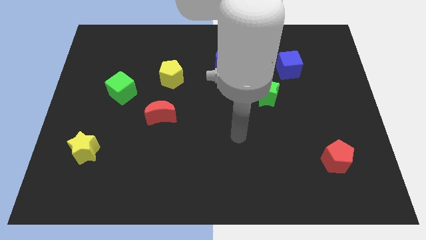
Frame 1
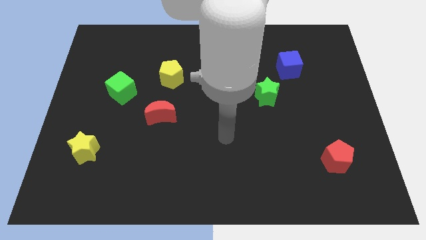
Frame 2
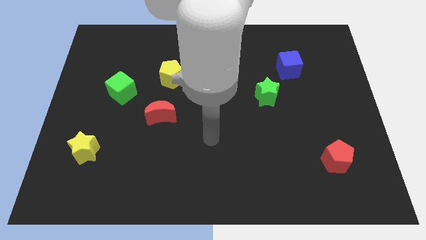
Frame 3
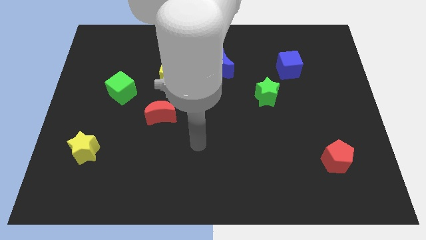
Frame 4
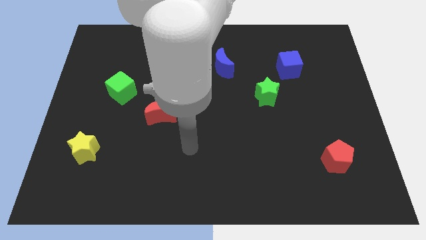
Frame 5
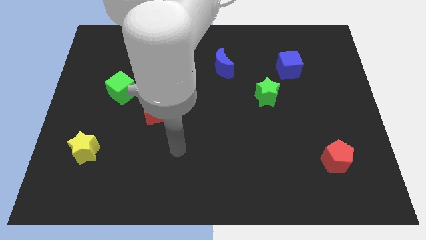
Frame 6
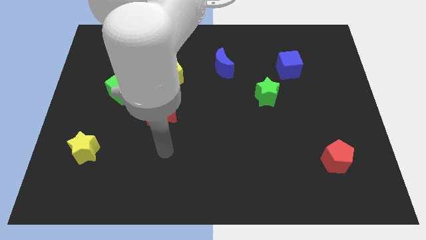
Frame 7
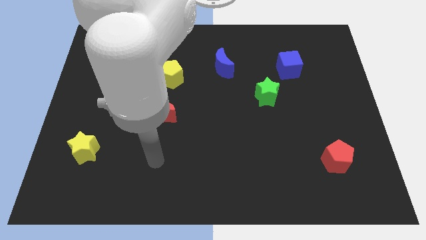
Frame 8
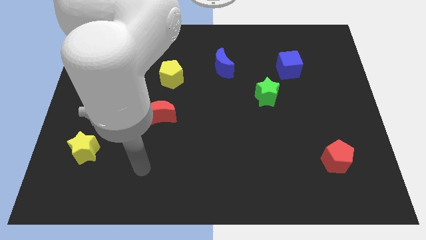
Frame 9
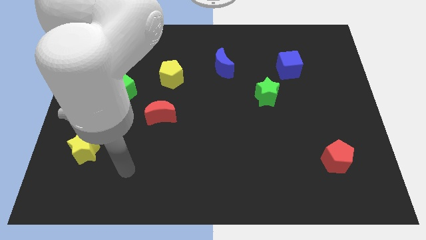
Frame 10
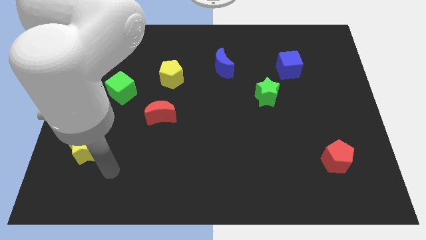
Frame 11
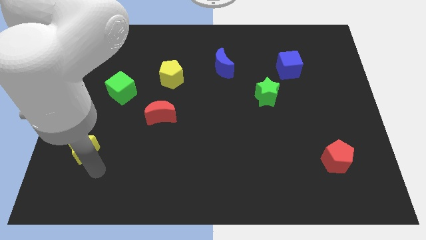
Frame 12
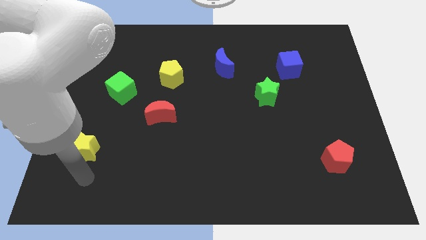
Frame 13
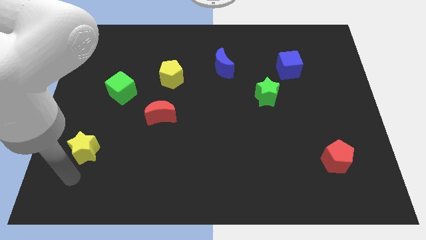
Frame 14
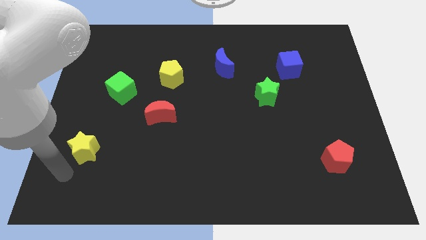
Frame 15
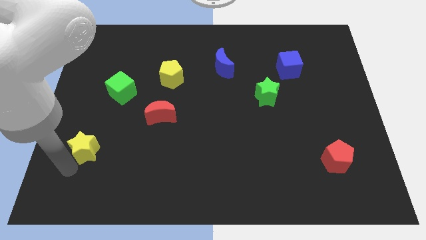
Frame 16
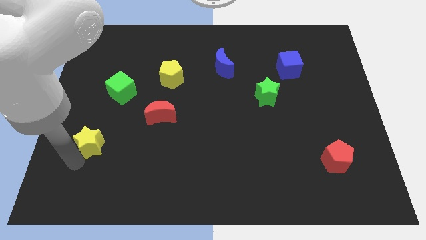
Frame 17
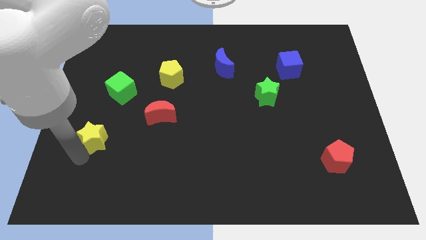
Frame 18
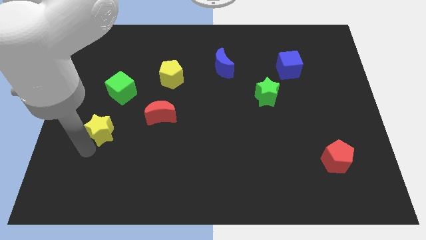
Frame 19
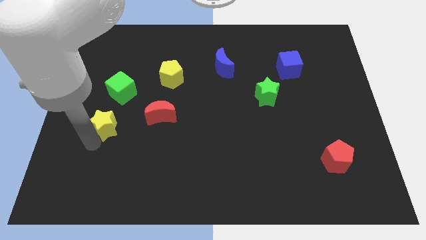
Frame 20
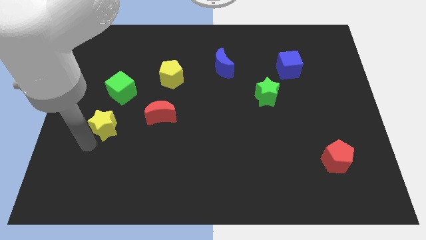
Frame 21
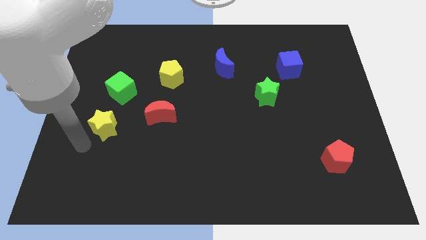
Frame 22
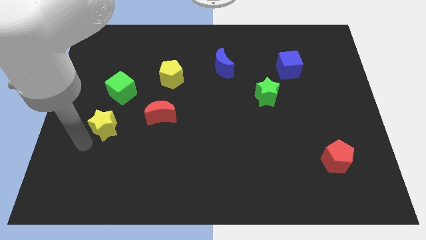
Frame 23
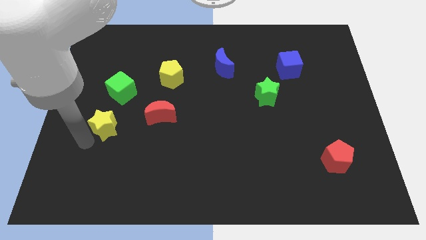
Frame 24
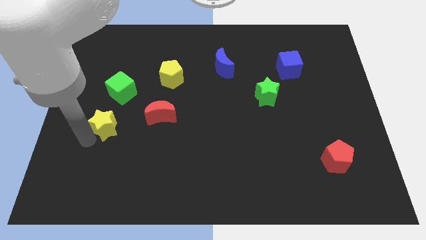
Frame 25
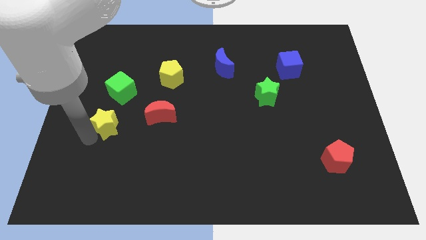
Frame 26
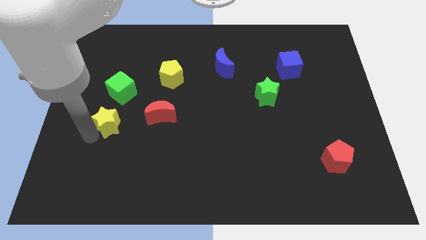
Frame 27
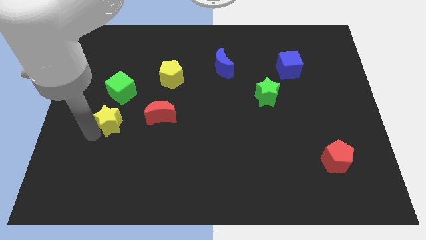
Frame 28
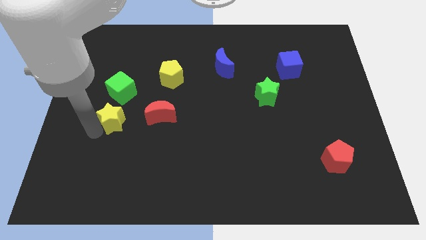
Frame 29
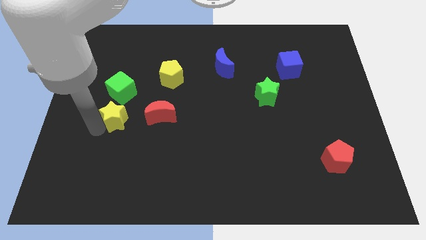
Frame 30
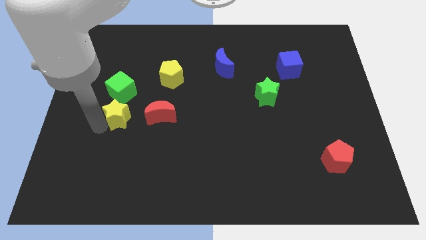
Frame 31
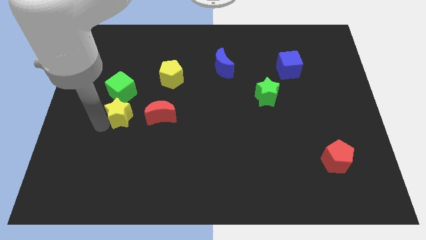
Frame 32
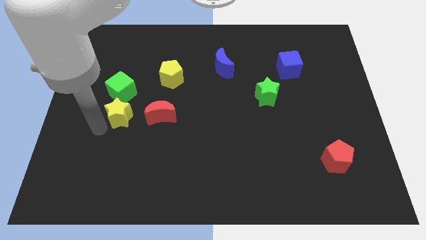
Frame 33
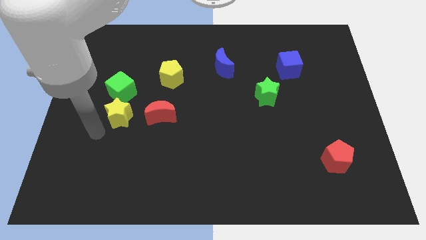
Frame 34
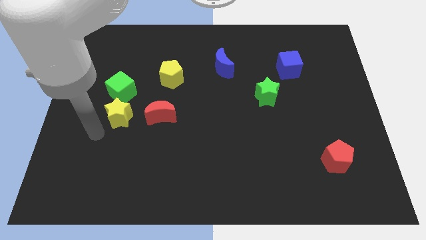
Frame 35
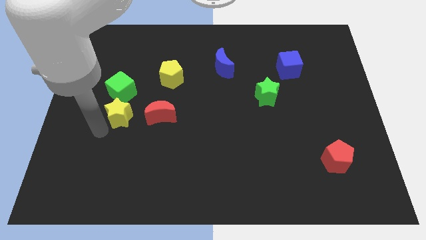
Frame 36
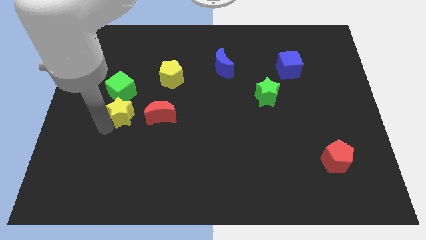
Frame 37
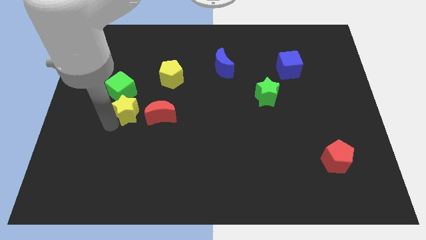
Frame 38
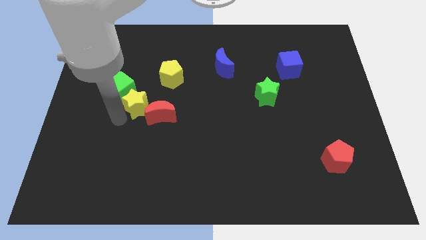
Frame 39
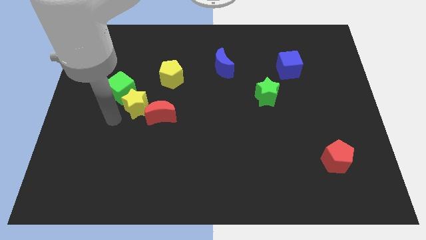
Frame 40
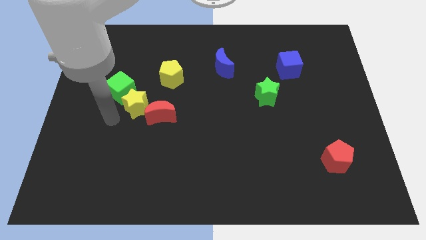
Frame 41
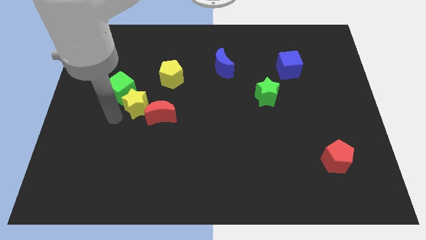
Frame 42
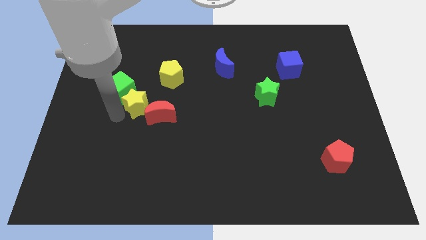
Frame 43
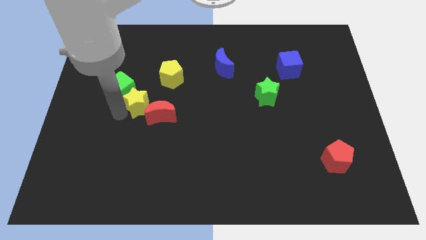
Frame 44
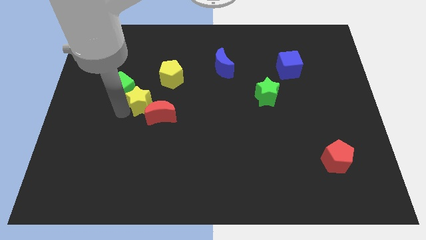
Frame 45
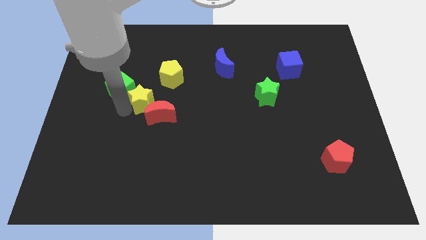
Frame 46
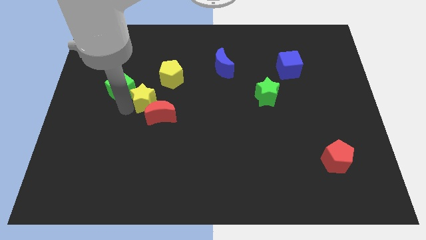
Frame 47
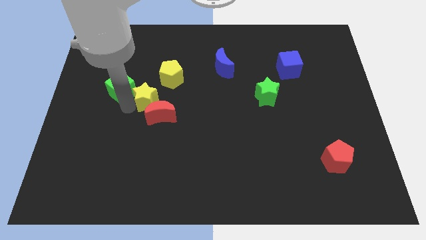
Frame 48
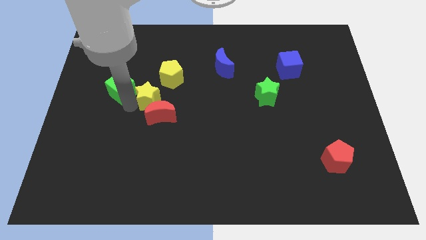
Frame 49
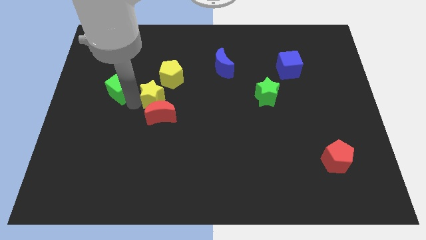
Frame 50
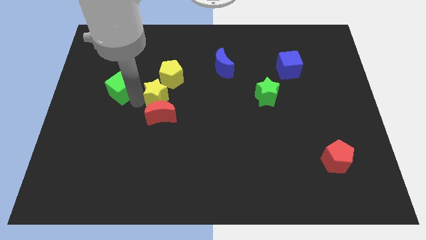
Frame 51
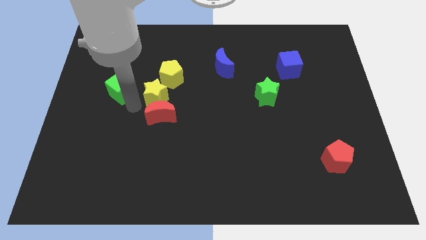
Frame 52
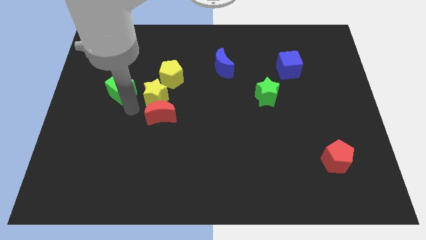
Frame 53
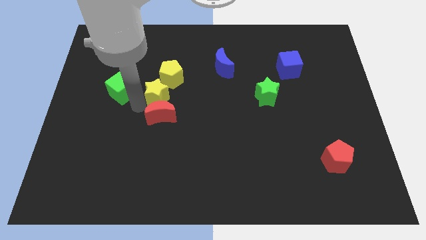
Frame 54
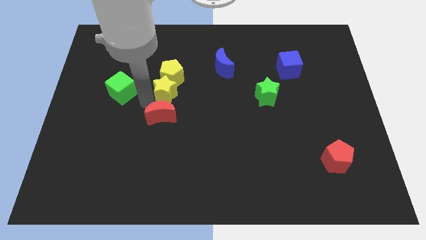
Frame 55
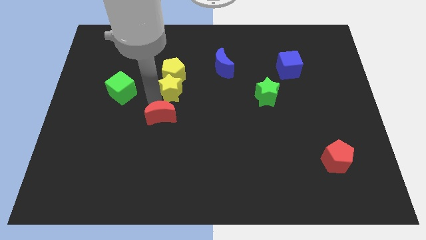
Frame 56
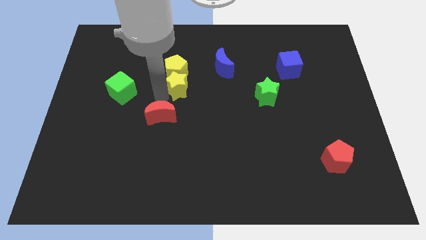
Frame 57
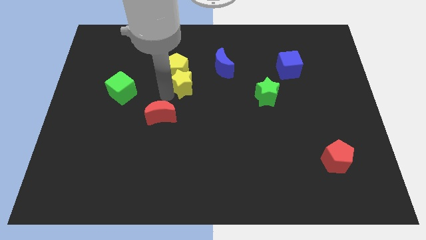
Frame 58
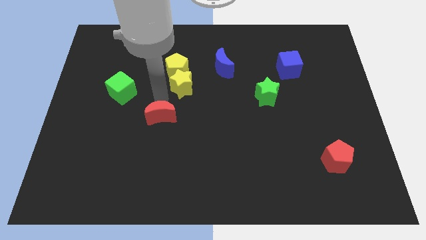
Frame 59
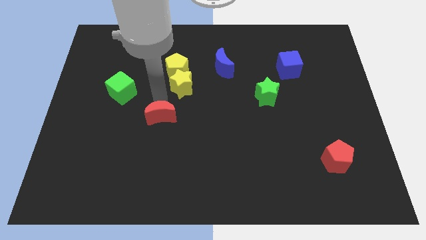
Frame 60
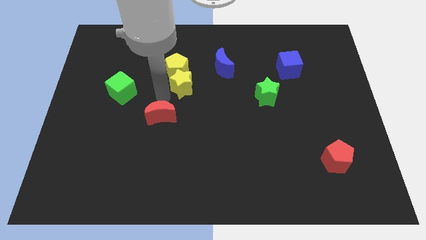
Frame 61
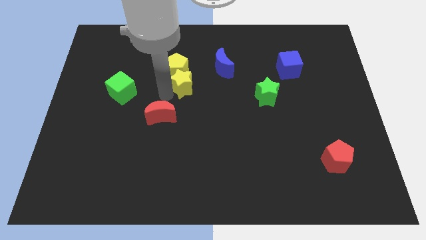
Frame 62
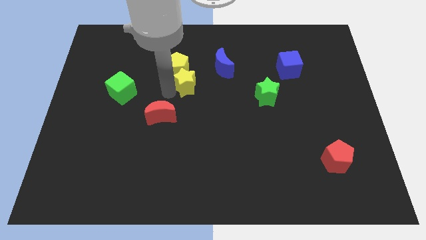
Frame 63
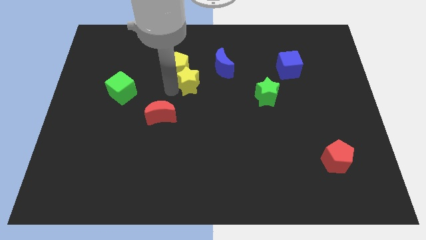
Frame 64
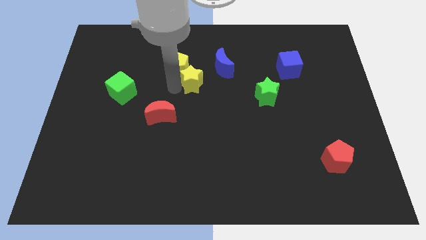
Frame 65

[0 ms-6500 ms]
push the yellow star to the right side of the yellow pentagon

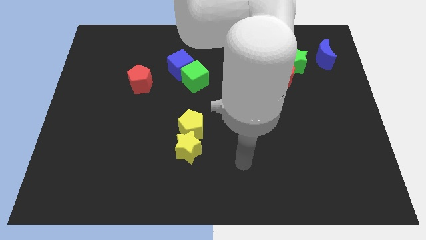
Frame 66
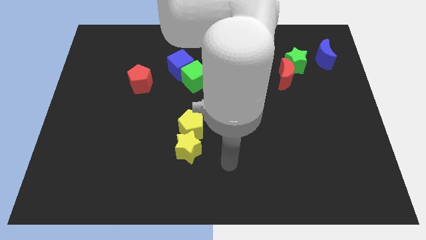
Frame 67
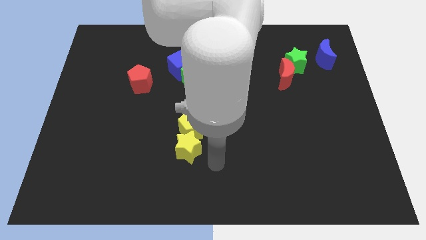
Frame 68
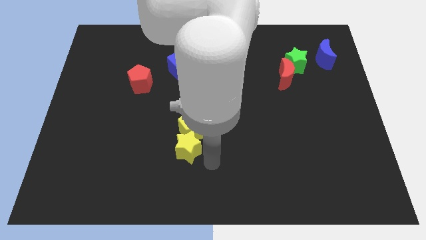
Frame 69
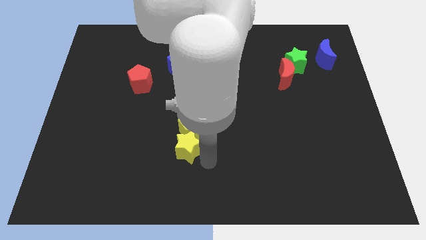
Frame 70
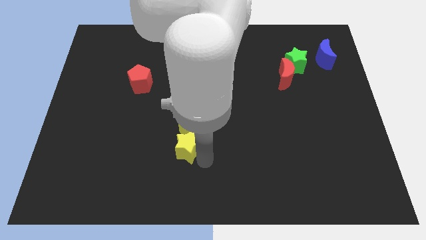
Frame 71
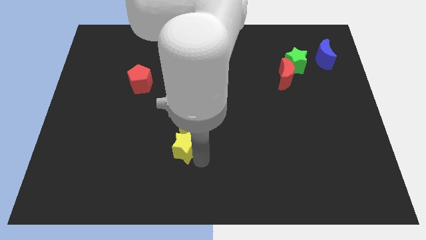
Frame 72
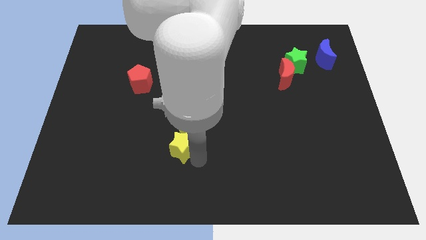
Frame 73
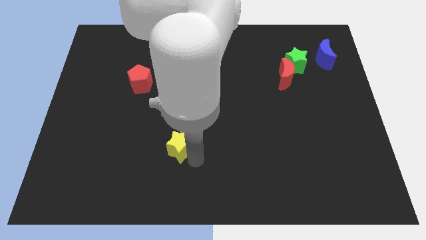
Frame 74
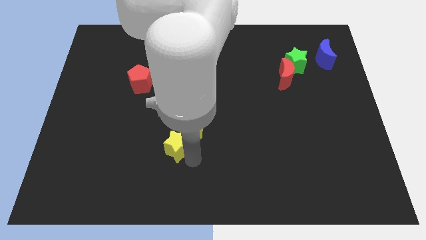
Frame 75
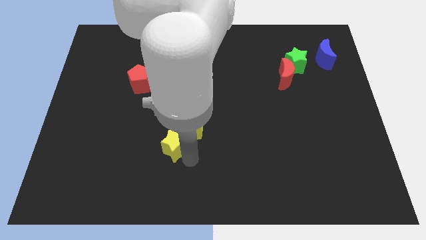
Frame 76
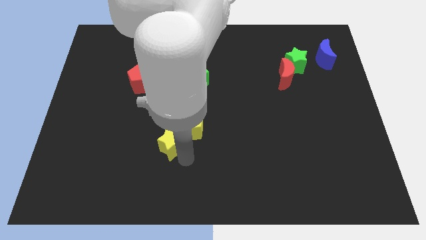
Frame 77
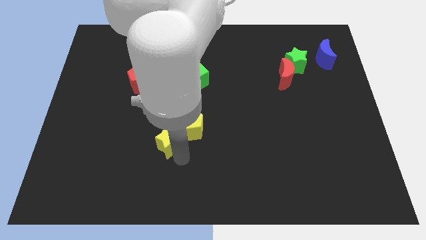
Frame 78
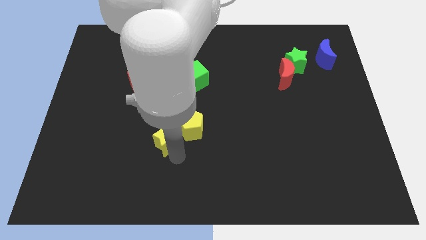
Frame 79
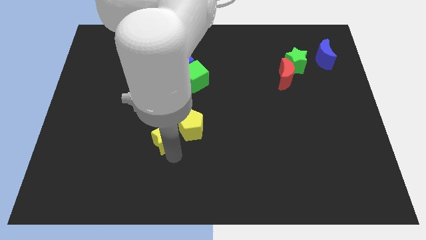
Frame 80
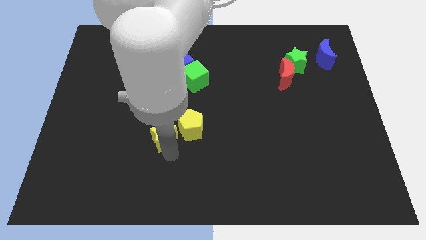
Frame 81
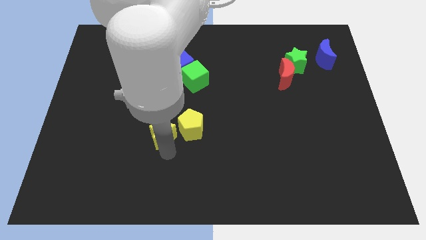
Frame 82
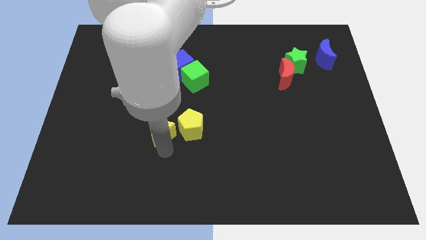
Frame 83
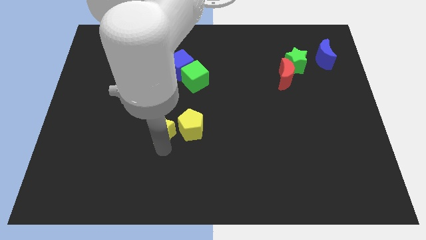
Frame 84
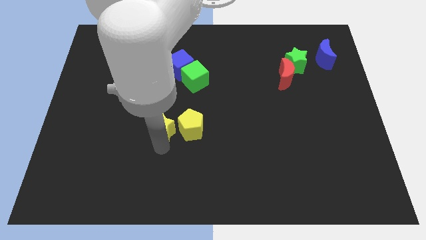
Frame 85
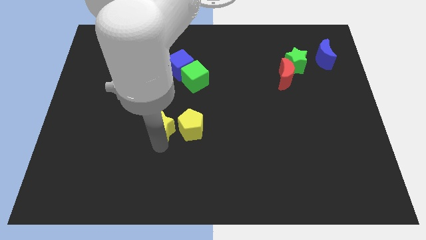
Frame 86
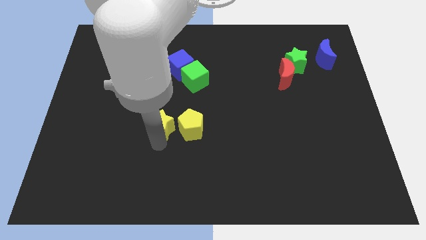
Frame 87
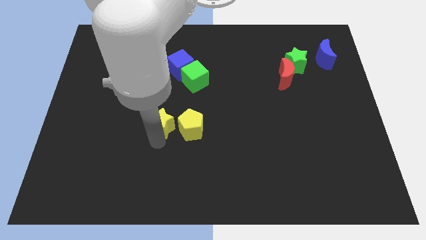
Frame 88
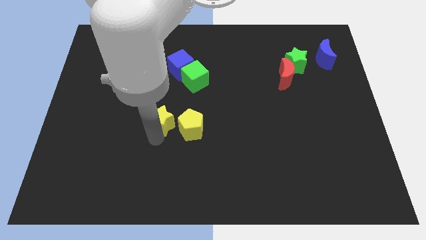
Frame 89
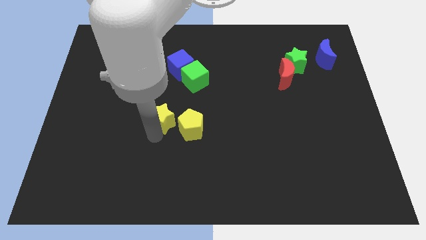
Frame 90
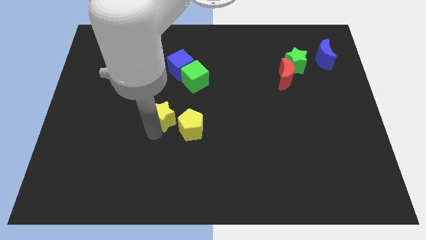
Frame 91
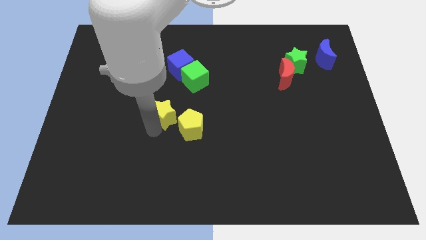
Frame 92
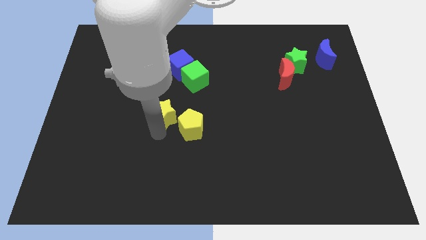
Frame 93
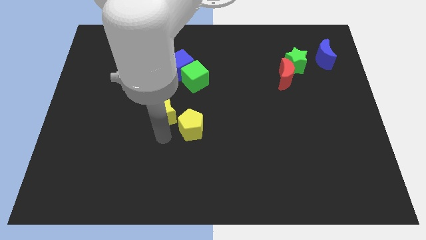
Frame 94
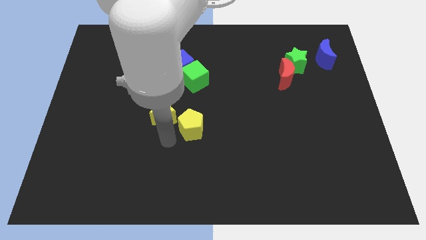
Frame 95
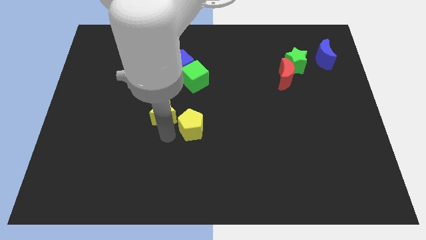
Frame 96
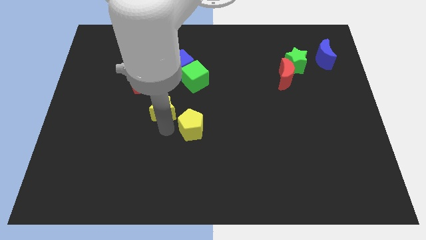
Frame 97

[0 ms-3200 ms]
slide the yellow star to the bottom right of the red pentagon
